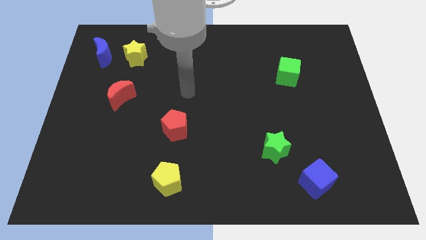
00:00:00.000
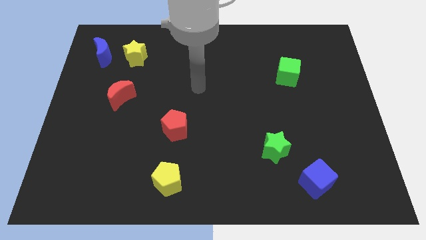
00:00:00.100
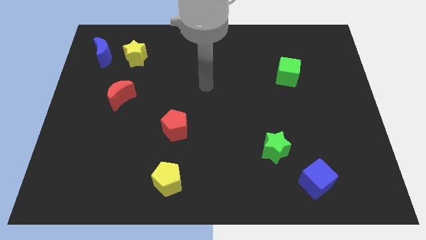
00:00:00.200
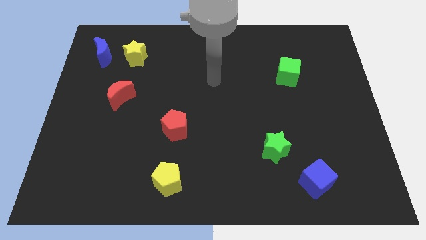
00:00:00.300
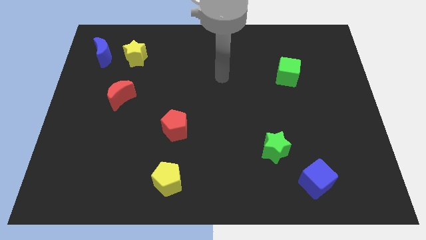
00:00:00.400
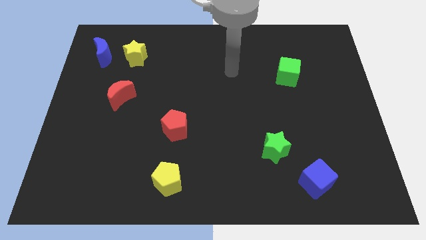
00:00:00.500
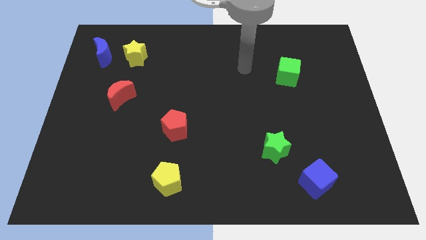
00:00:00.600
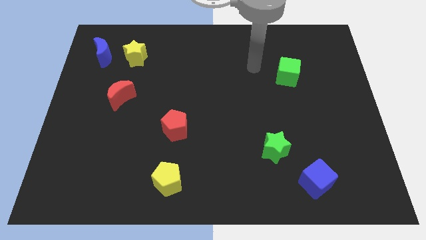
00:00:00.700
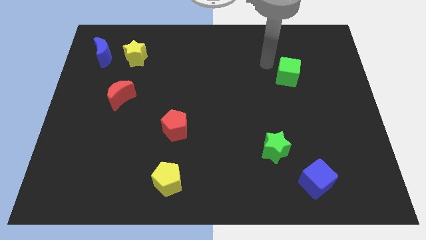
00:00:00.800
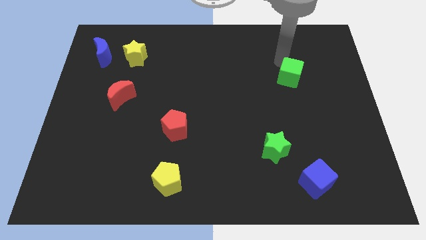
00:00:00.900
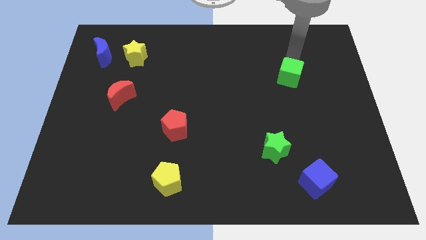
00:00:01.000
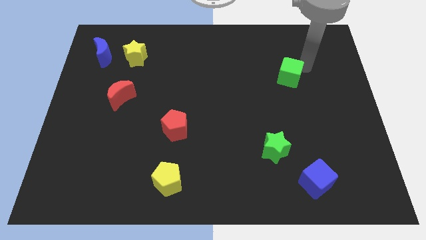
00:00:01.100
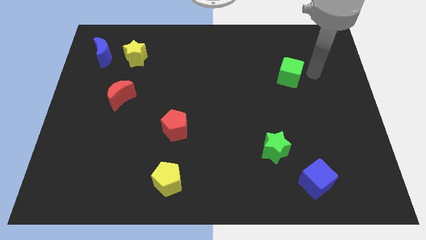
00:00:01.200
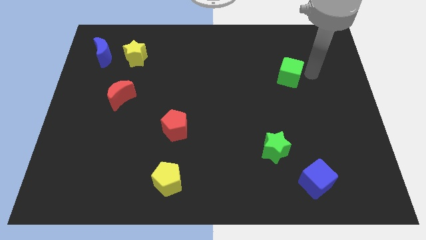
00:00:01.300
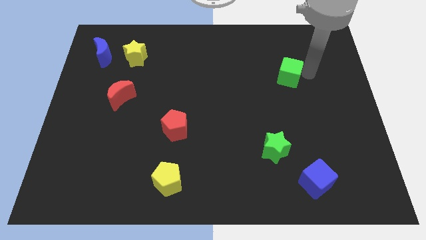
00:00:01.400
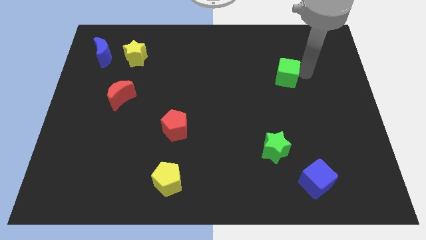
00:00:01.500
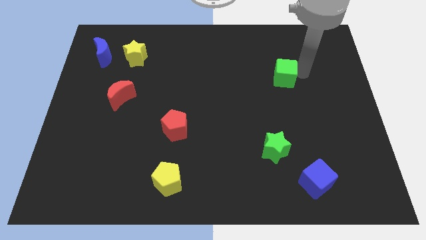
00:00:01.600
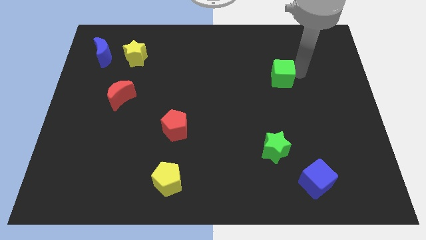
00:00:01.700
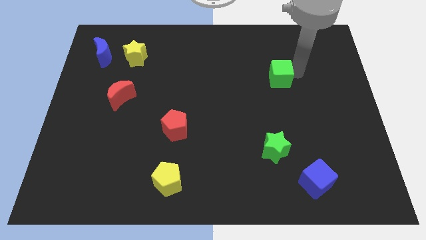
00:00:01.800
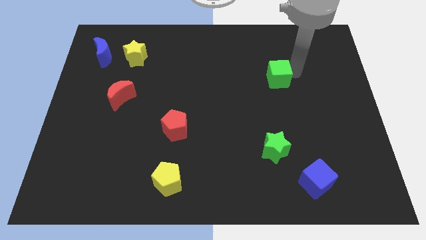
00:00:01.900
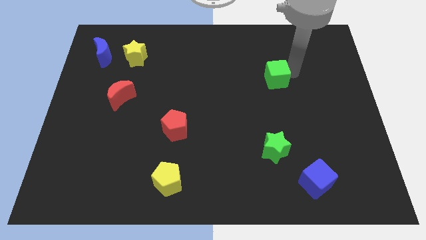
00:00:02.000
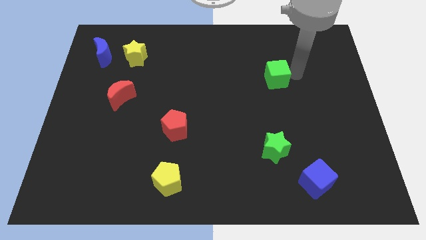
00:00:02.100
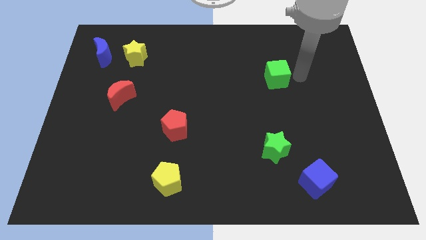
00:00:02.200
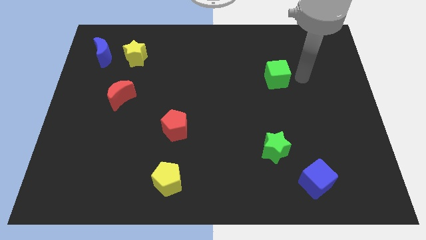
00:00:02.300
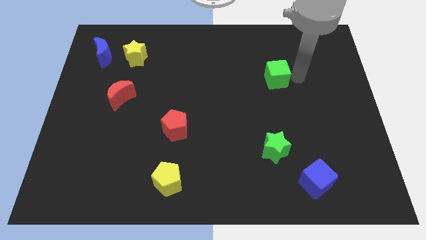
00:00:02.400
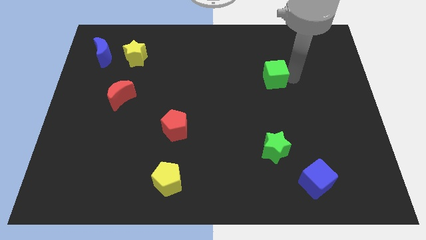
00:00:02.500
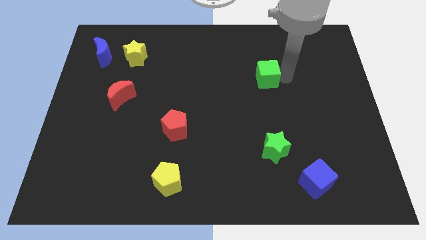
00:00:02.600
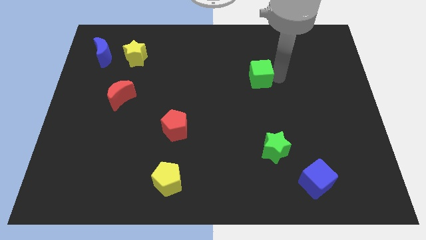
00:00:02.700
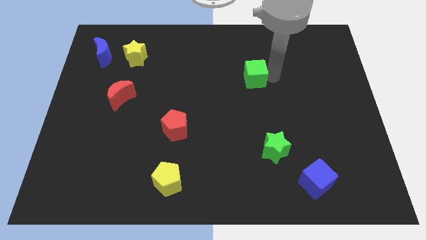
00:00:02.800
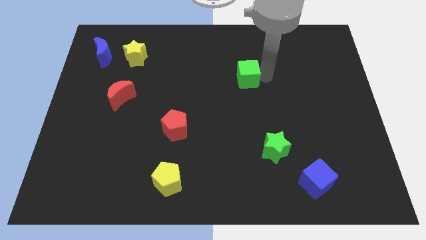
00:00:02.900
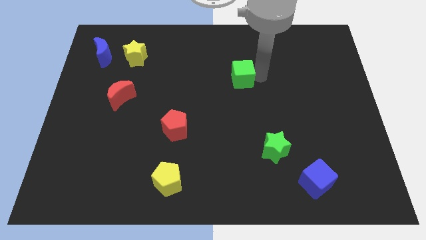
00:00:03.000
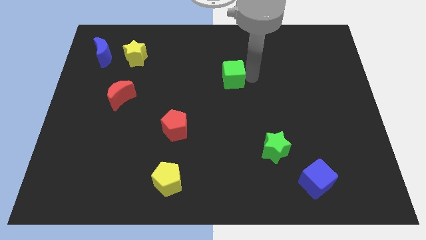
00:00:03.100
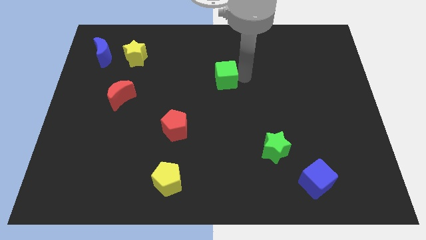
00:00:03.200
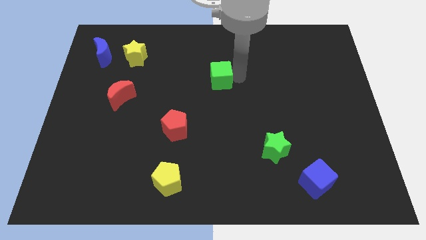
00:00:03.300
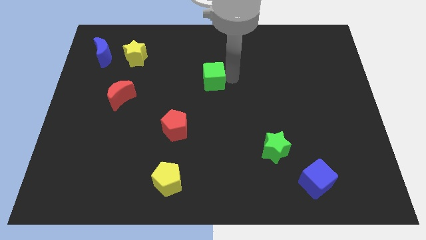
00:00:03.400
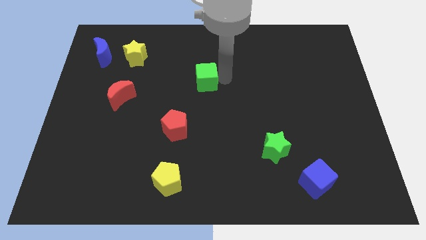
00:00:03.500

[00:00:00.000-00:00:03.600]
move the green cube to the left

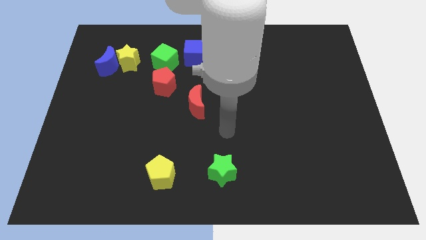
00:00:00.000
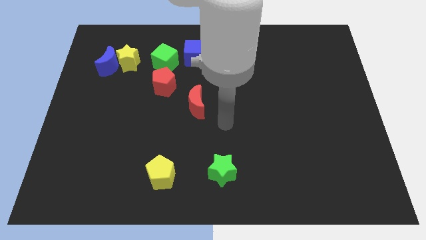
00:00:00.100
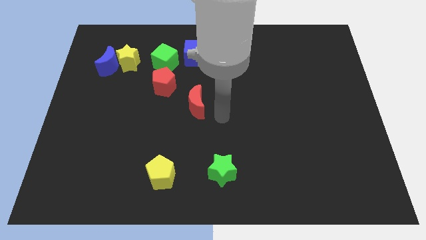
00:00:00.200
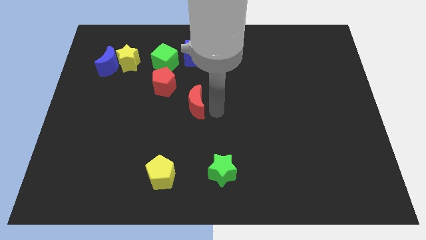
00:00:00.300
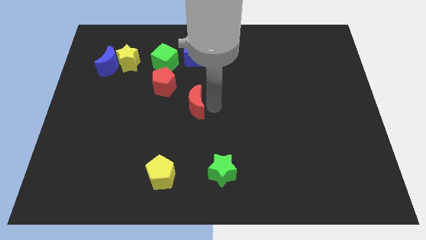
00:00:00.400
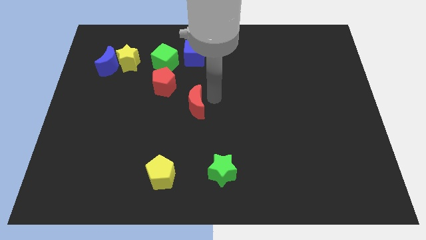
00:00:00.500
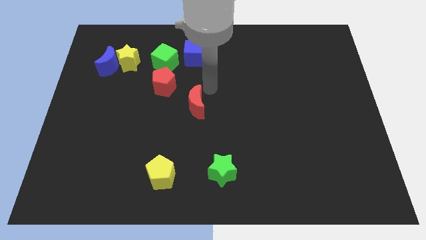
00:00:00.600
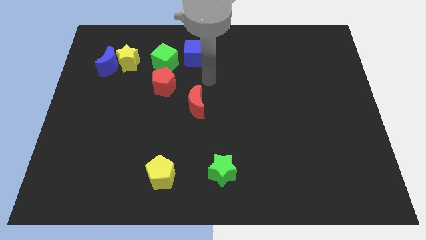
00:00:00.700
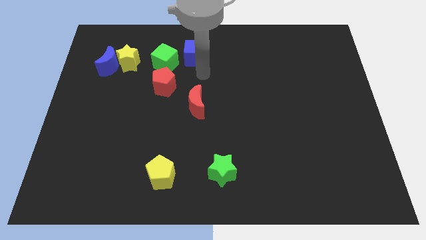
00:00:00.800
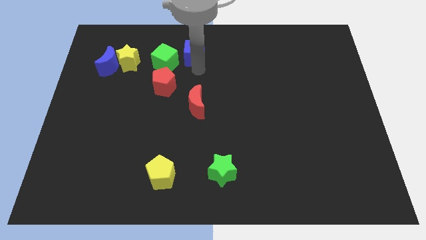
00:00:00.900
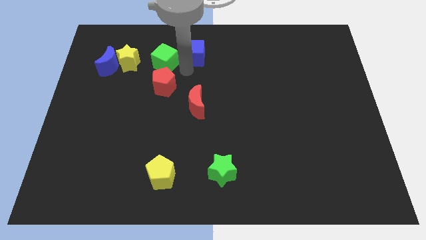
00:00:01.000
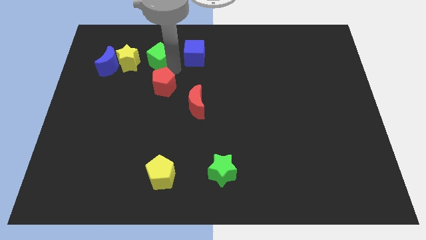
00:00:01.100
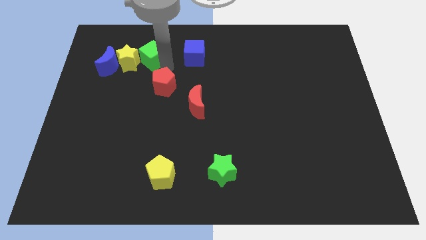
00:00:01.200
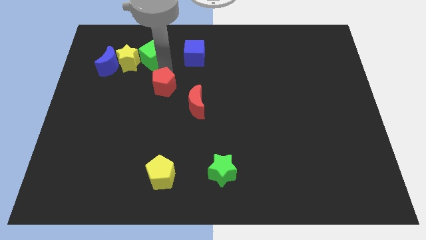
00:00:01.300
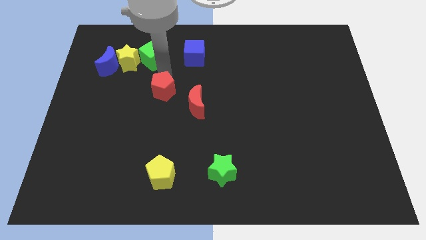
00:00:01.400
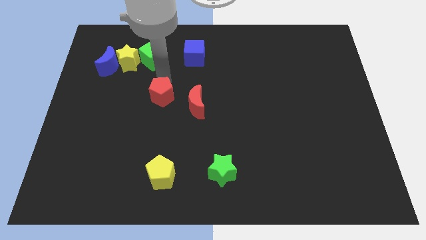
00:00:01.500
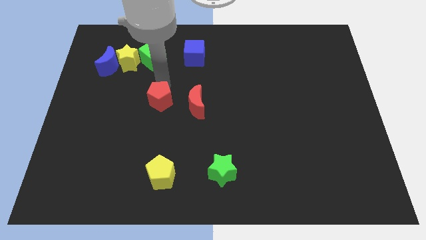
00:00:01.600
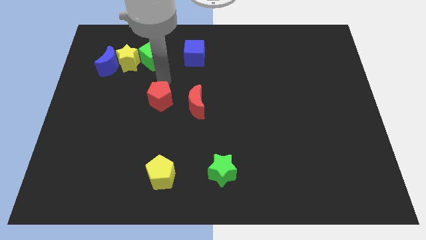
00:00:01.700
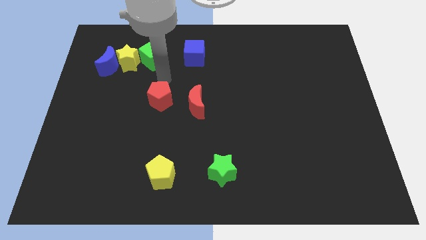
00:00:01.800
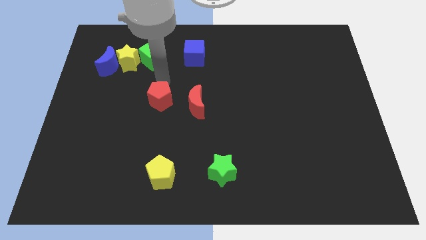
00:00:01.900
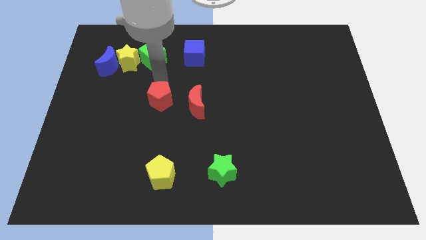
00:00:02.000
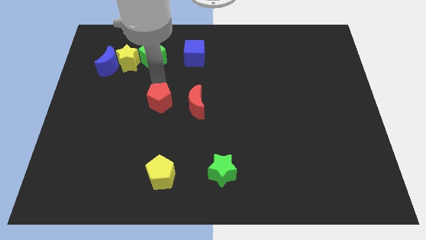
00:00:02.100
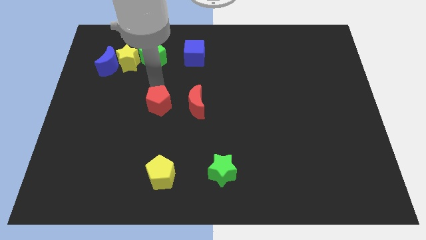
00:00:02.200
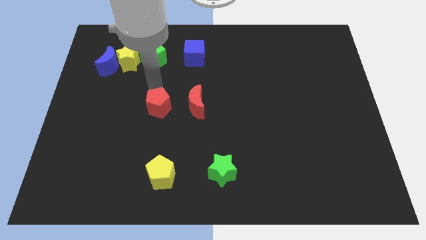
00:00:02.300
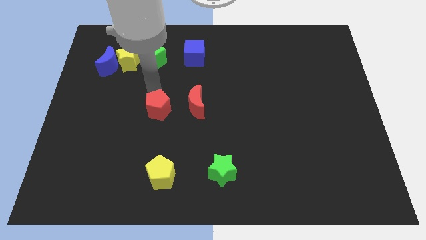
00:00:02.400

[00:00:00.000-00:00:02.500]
push the red pentagon somewhat down

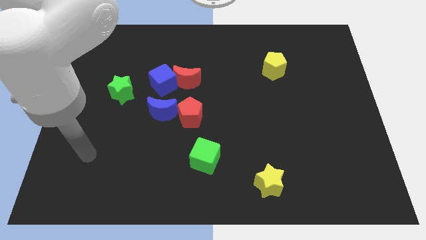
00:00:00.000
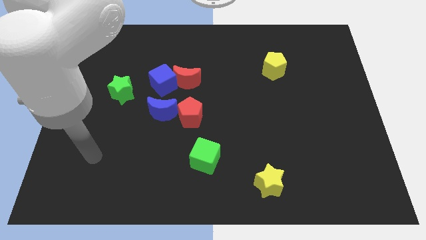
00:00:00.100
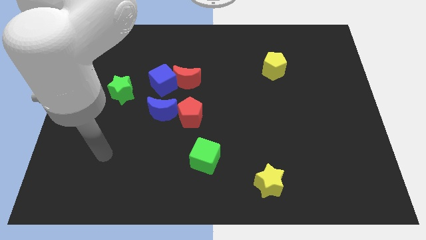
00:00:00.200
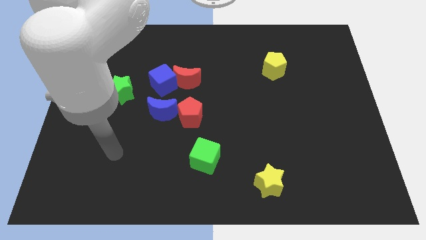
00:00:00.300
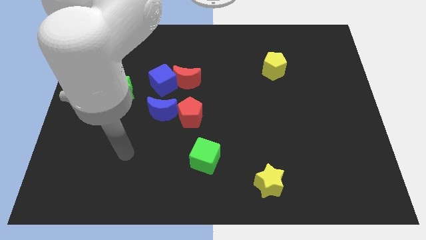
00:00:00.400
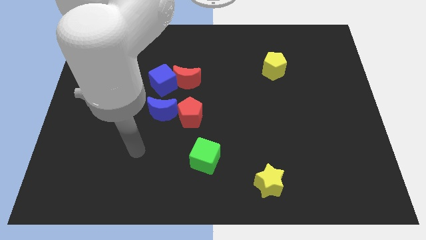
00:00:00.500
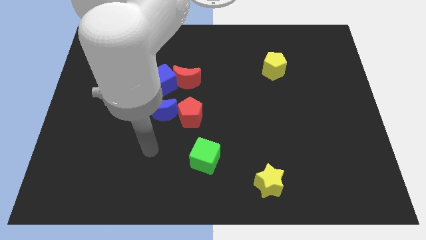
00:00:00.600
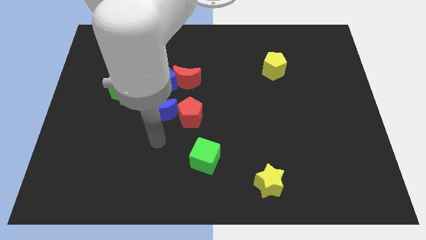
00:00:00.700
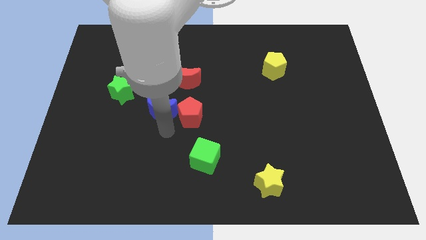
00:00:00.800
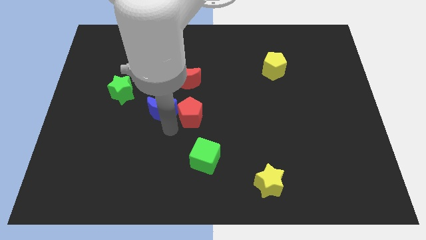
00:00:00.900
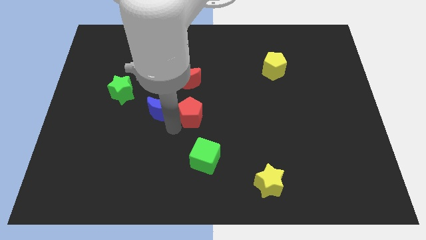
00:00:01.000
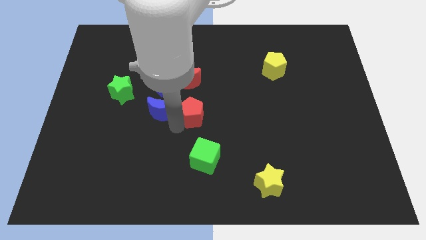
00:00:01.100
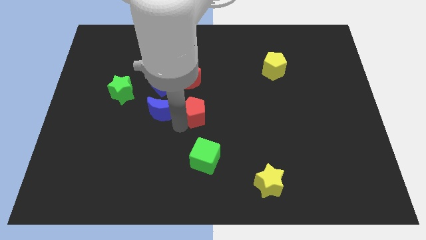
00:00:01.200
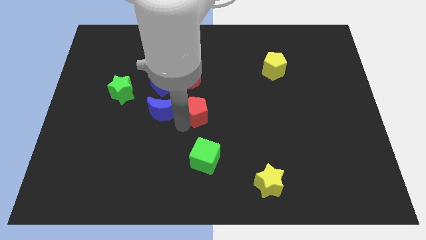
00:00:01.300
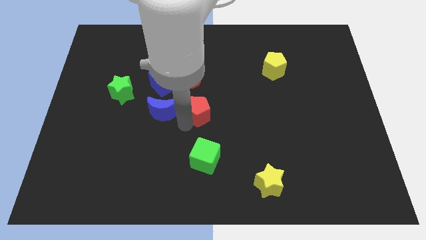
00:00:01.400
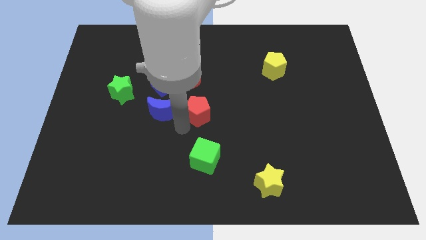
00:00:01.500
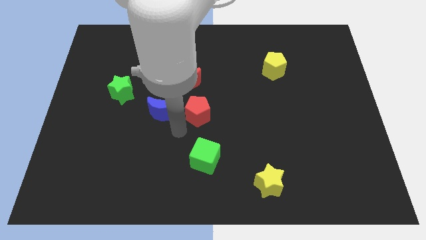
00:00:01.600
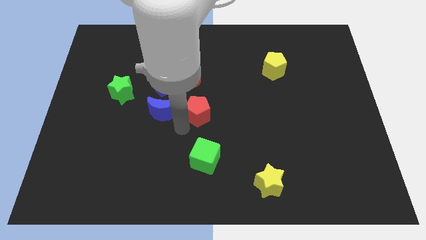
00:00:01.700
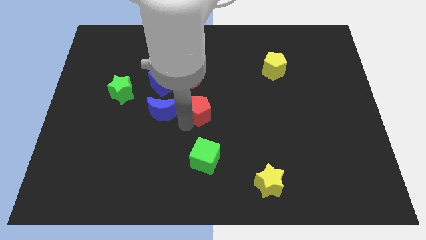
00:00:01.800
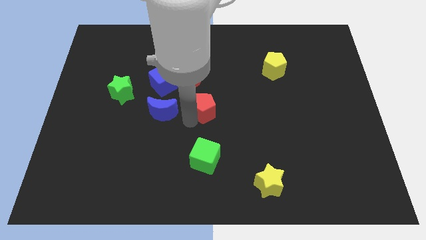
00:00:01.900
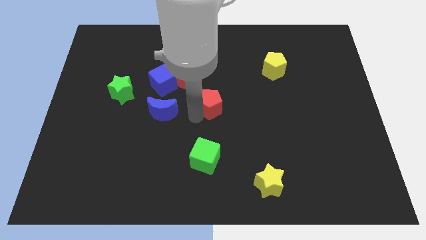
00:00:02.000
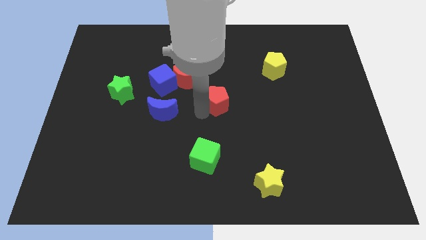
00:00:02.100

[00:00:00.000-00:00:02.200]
slightly move the red pentagon diagonally up and to the right
